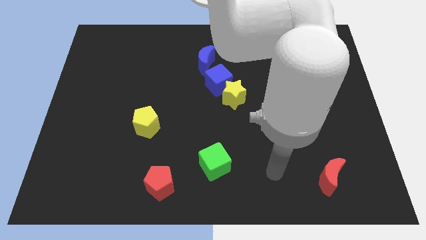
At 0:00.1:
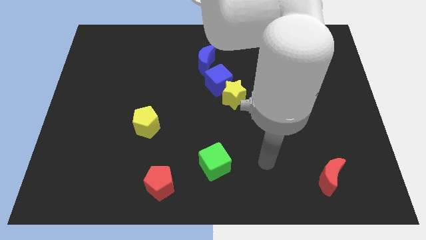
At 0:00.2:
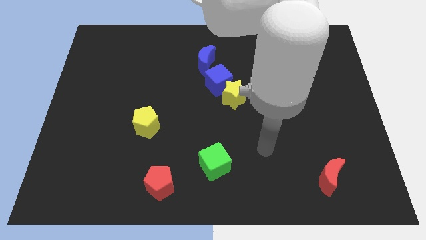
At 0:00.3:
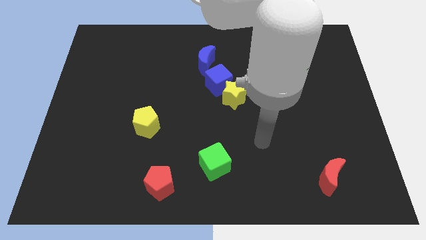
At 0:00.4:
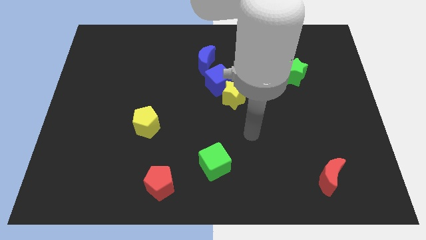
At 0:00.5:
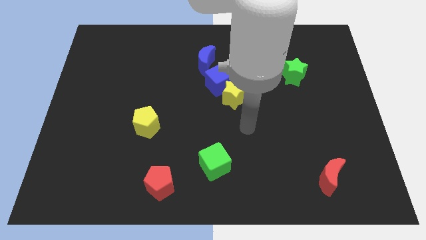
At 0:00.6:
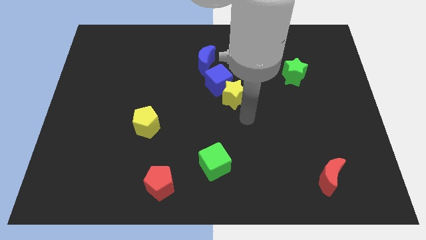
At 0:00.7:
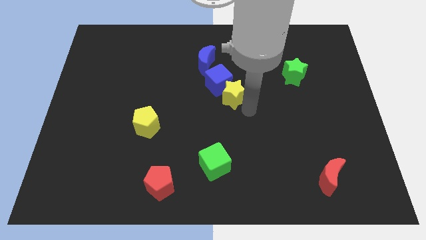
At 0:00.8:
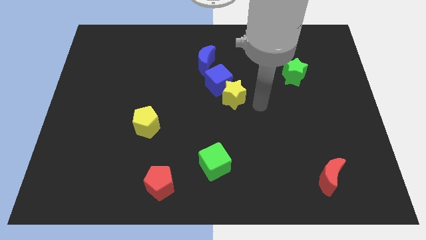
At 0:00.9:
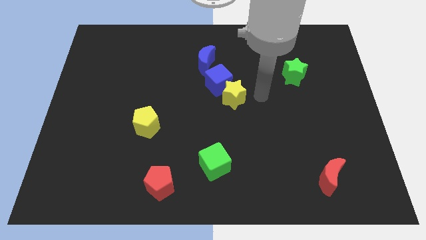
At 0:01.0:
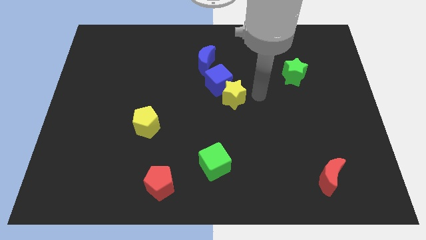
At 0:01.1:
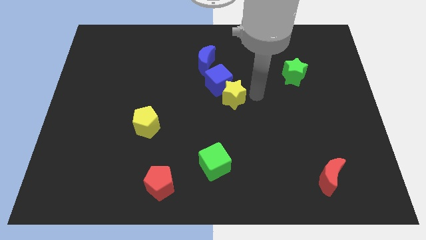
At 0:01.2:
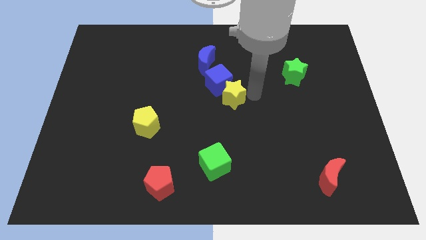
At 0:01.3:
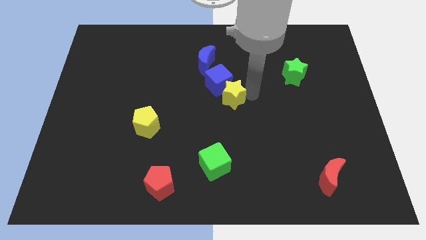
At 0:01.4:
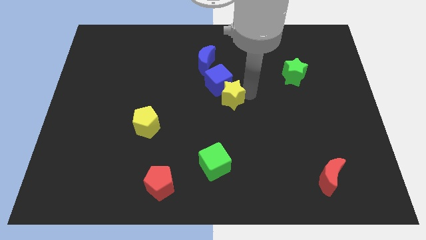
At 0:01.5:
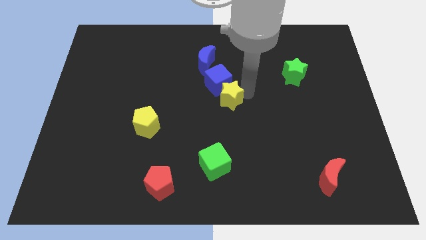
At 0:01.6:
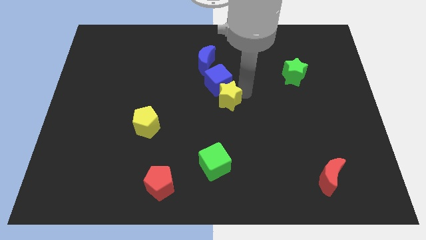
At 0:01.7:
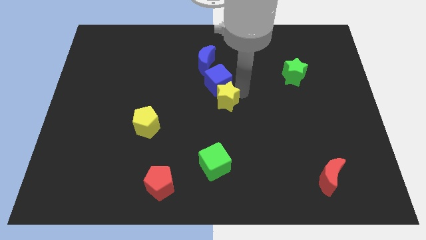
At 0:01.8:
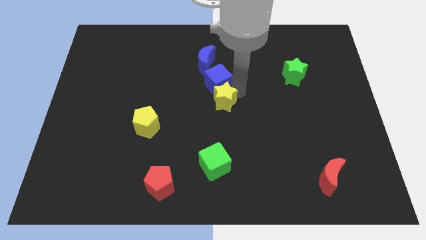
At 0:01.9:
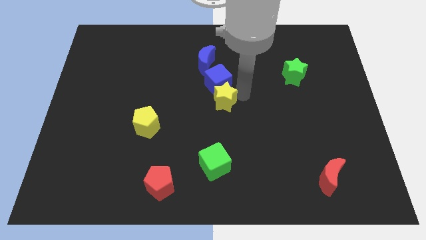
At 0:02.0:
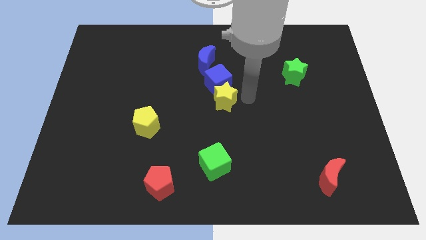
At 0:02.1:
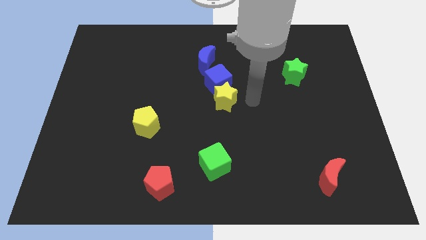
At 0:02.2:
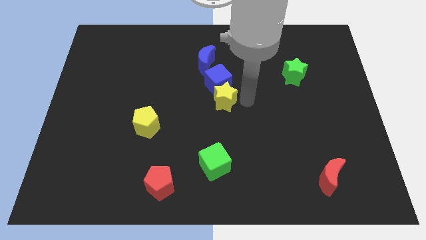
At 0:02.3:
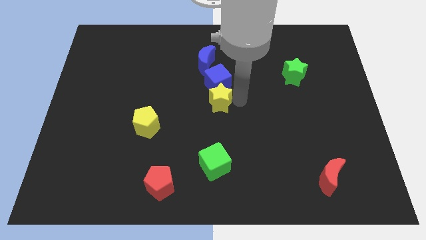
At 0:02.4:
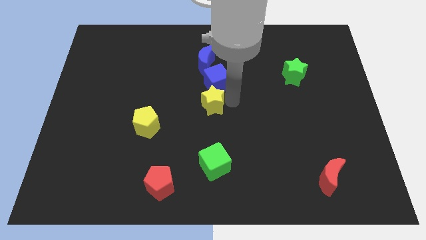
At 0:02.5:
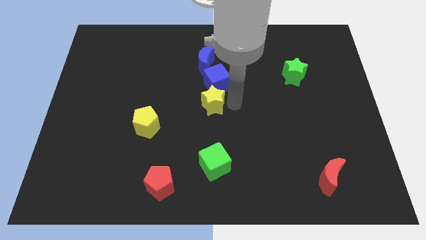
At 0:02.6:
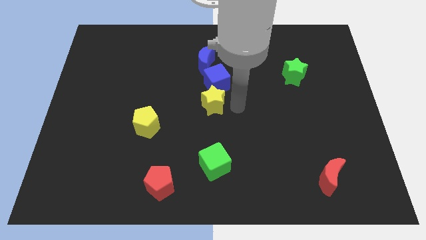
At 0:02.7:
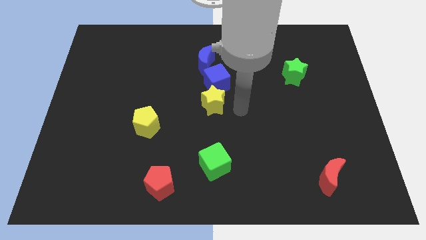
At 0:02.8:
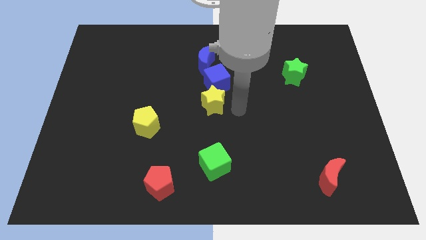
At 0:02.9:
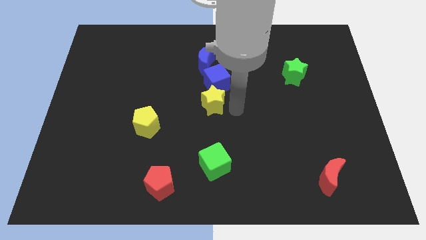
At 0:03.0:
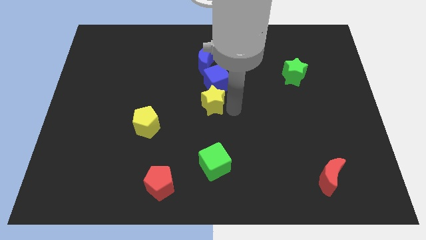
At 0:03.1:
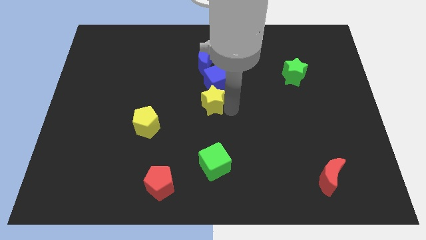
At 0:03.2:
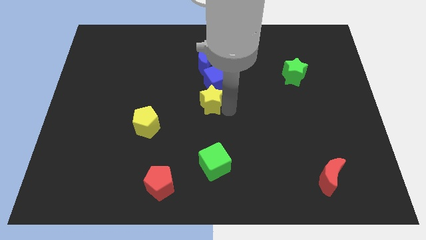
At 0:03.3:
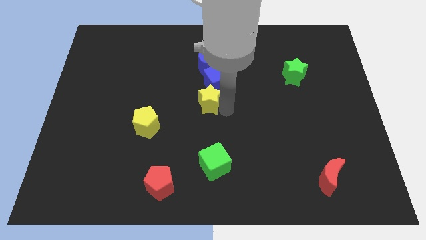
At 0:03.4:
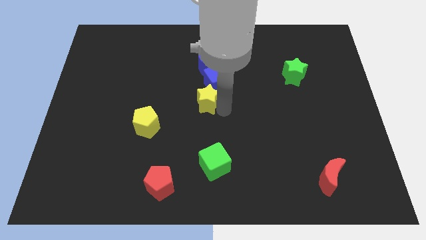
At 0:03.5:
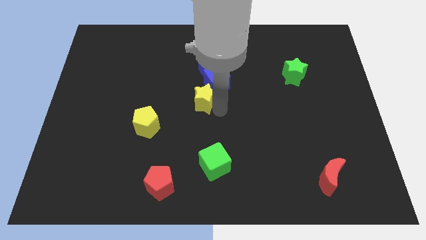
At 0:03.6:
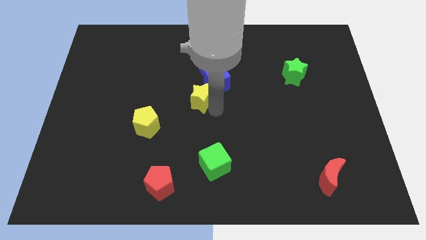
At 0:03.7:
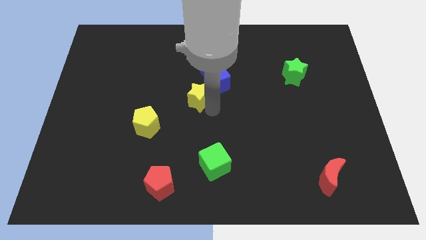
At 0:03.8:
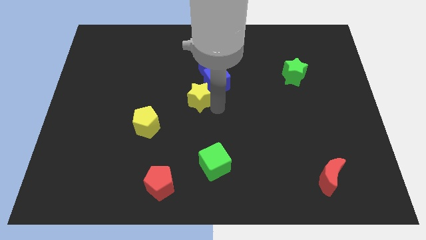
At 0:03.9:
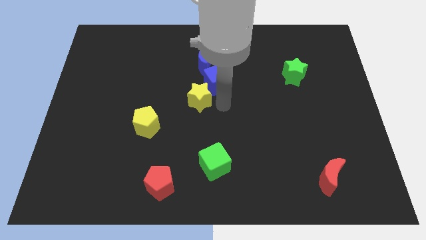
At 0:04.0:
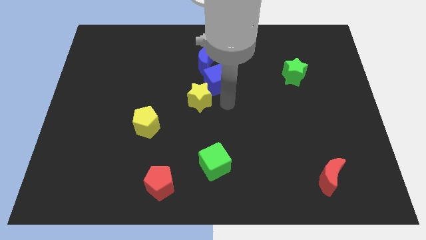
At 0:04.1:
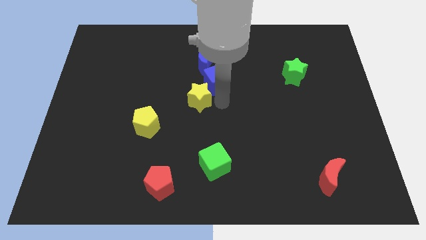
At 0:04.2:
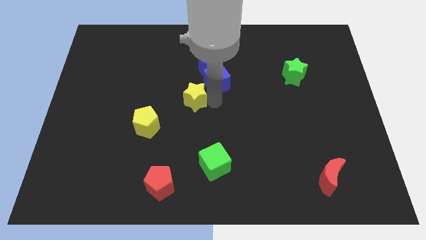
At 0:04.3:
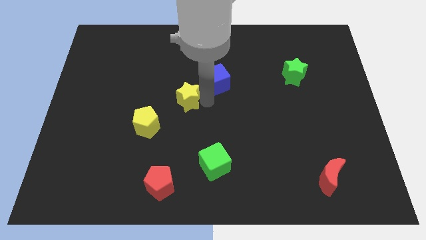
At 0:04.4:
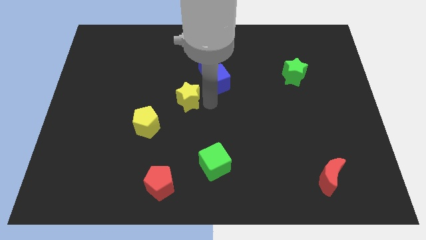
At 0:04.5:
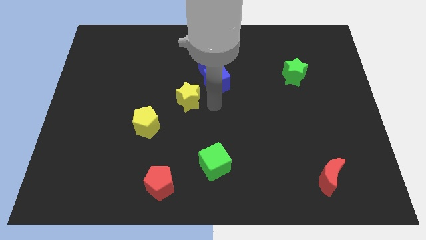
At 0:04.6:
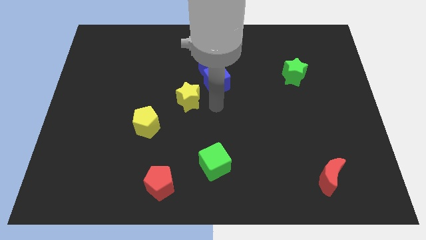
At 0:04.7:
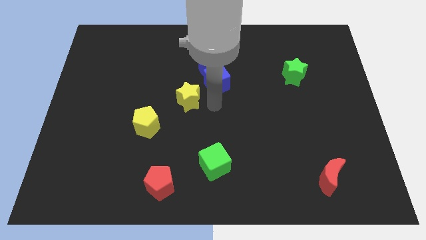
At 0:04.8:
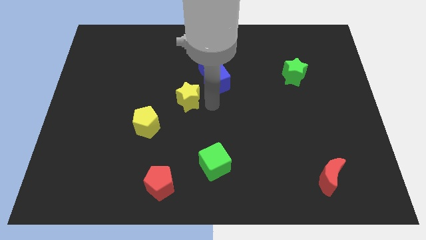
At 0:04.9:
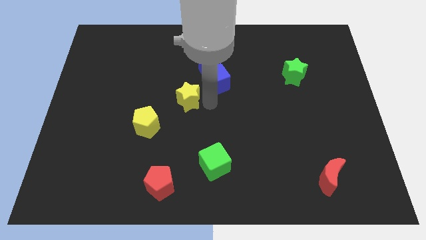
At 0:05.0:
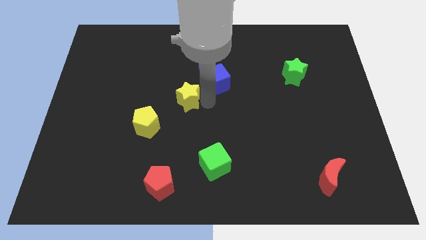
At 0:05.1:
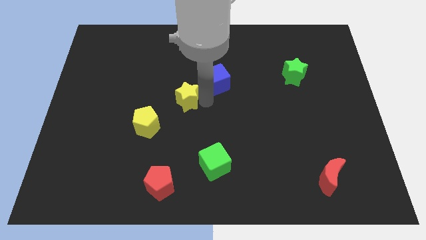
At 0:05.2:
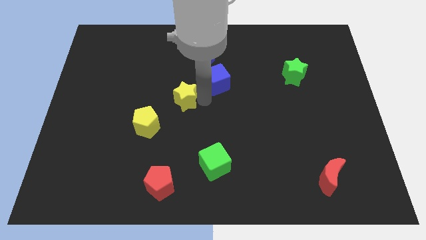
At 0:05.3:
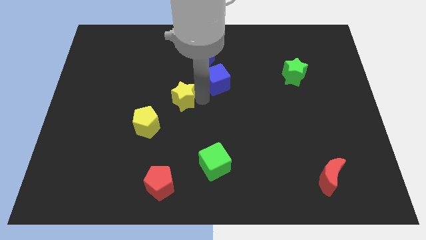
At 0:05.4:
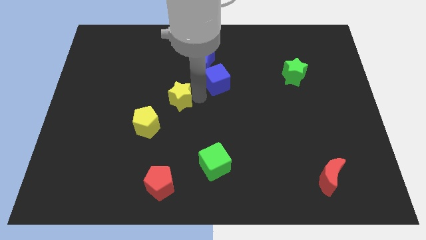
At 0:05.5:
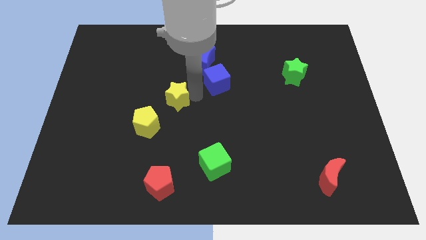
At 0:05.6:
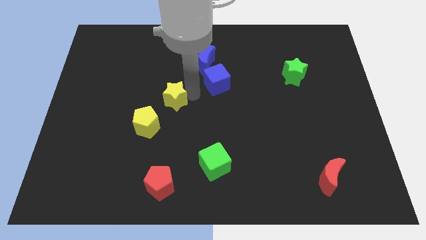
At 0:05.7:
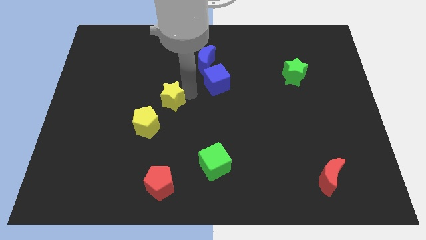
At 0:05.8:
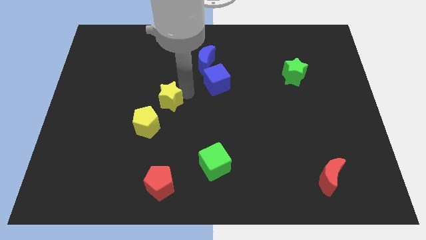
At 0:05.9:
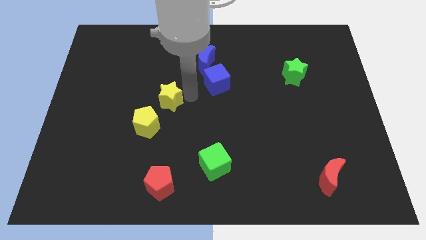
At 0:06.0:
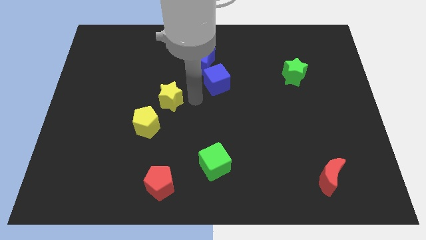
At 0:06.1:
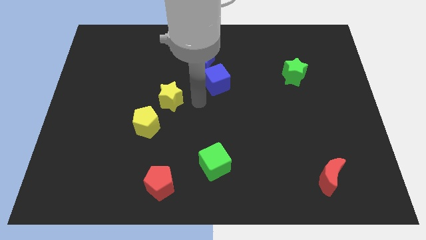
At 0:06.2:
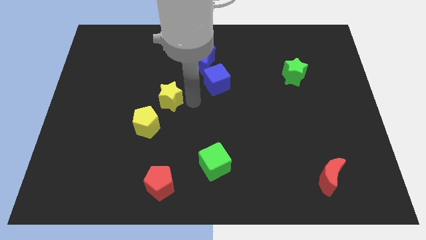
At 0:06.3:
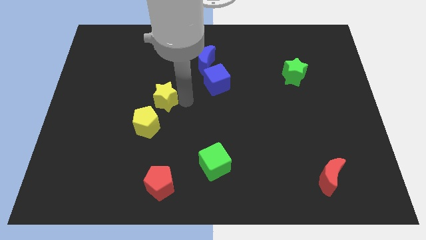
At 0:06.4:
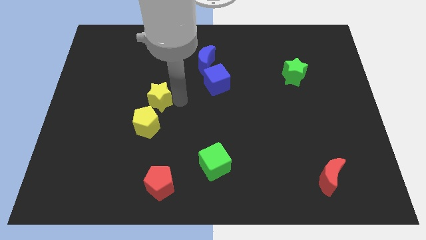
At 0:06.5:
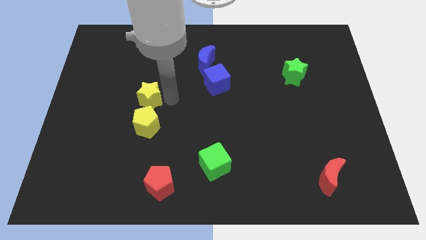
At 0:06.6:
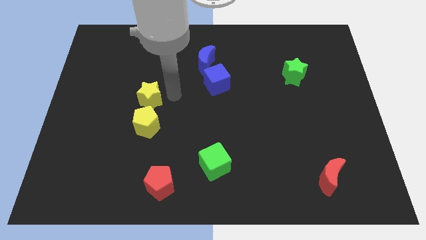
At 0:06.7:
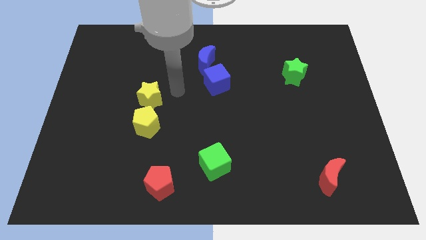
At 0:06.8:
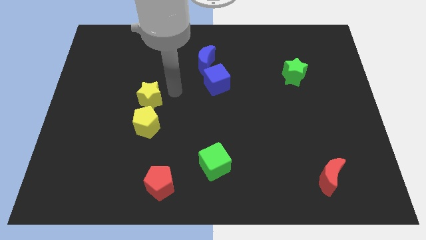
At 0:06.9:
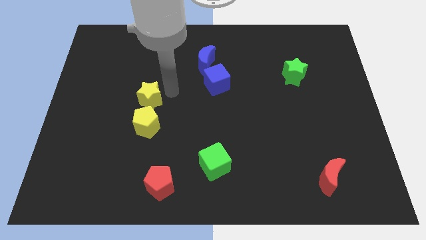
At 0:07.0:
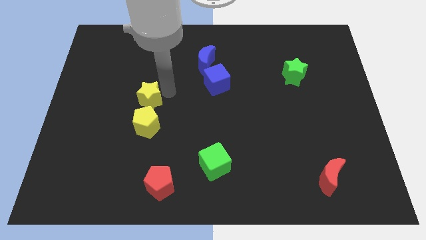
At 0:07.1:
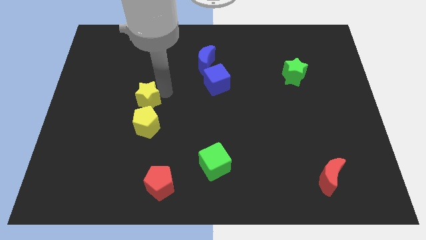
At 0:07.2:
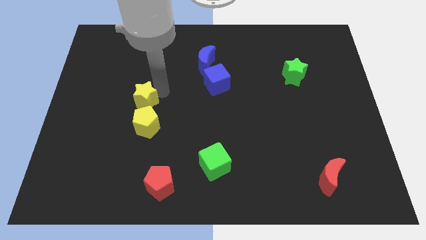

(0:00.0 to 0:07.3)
put the yellow star to the top left of the yellow pentagon
